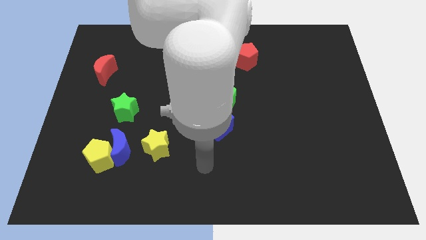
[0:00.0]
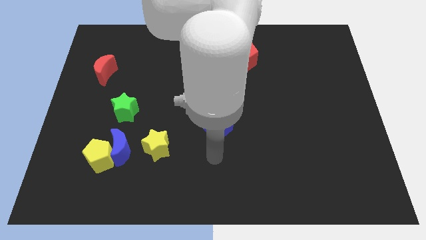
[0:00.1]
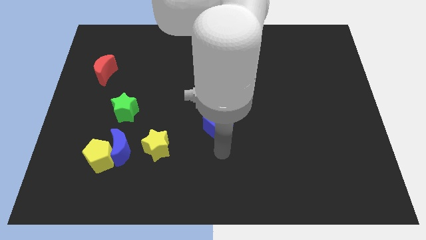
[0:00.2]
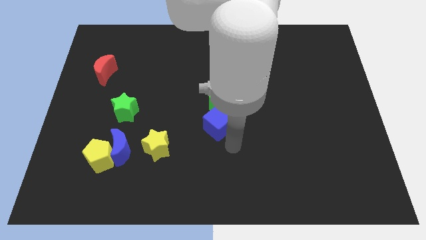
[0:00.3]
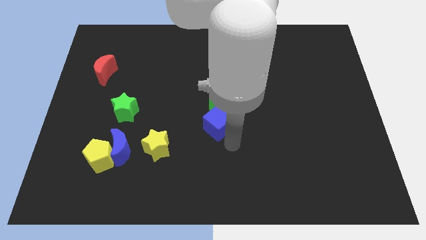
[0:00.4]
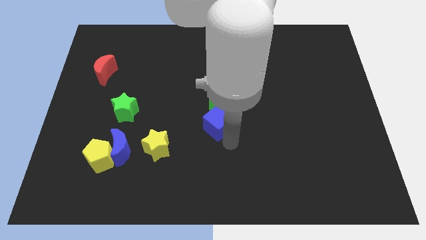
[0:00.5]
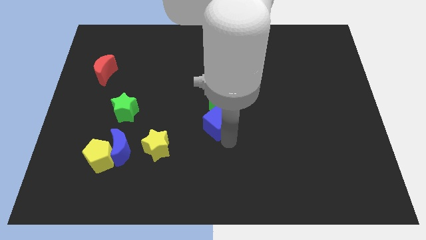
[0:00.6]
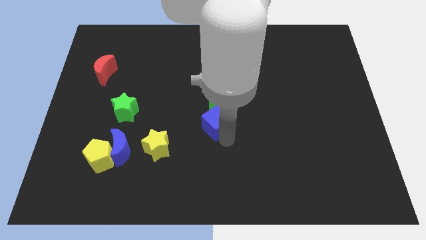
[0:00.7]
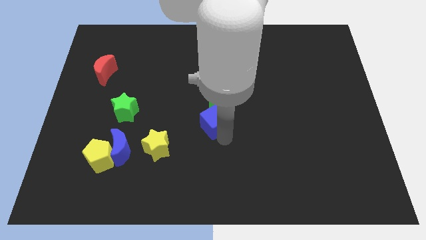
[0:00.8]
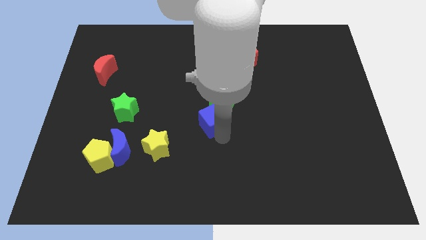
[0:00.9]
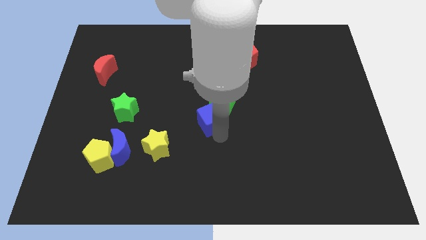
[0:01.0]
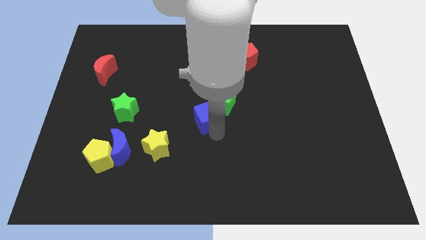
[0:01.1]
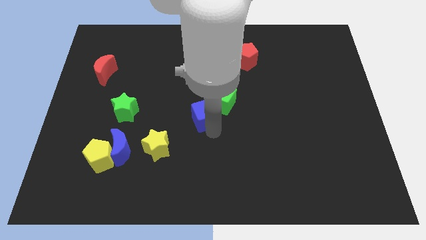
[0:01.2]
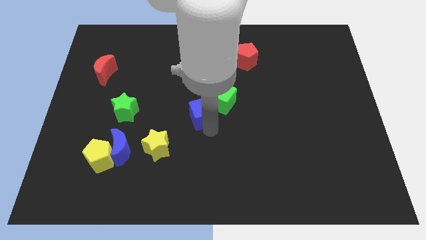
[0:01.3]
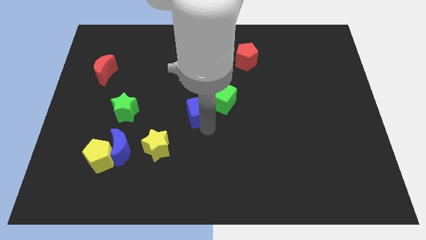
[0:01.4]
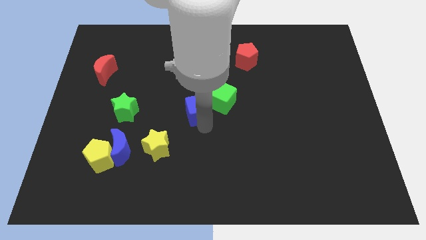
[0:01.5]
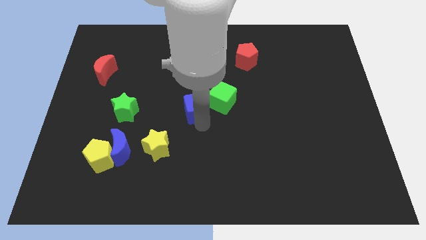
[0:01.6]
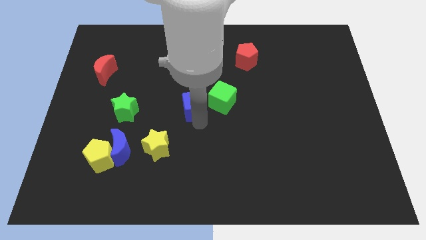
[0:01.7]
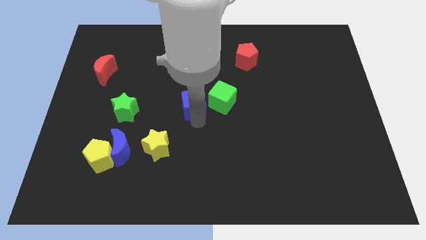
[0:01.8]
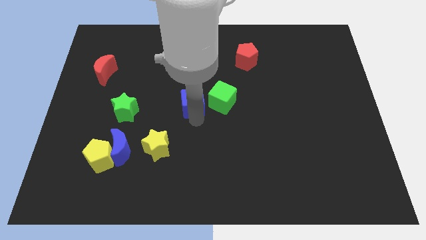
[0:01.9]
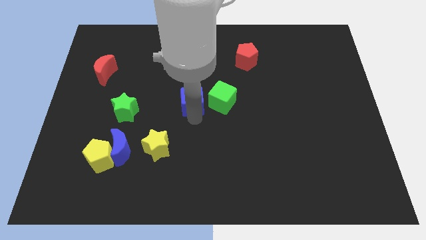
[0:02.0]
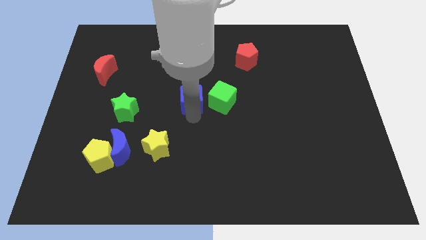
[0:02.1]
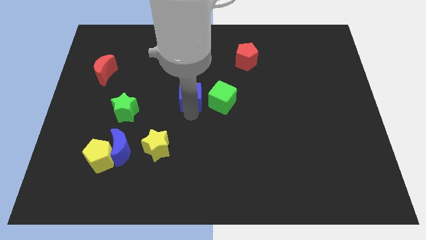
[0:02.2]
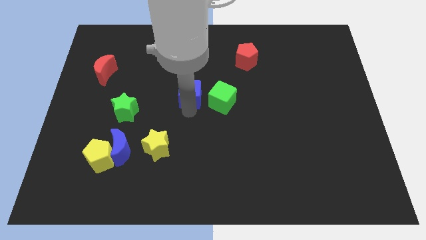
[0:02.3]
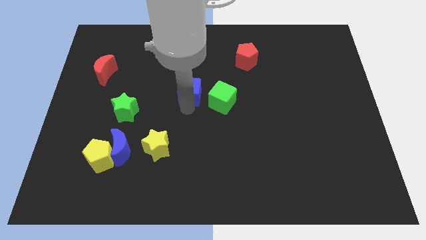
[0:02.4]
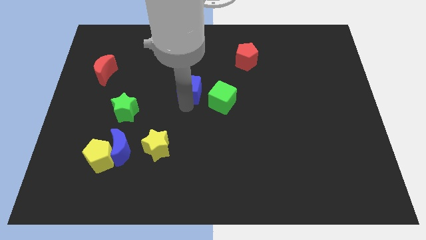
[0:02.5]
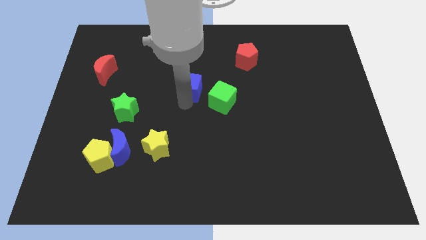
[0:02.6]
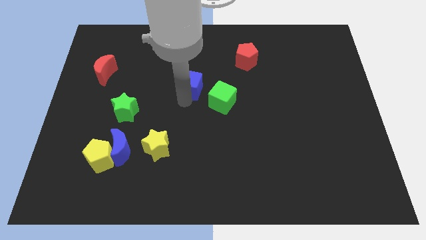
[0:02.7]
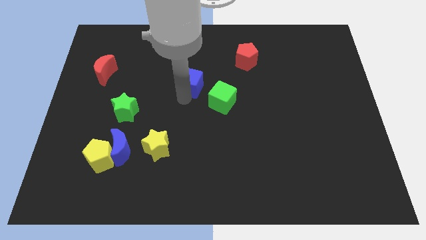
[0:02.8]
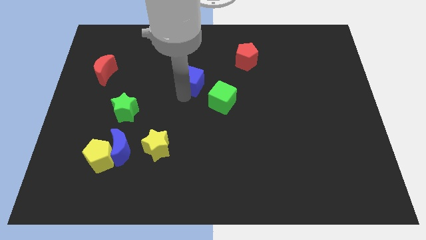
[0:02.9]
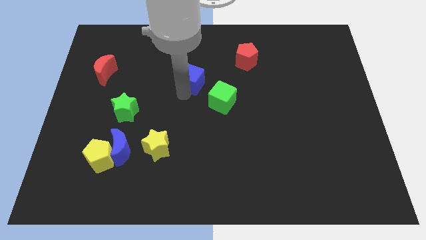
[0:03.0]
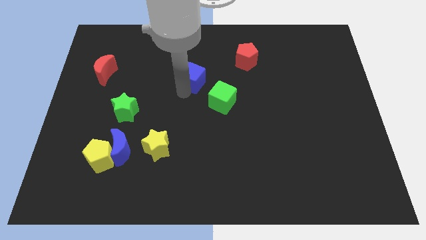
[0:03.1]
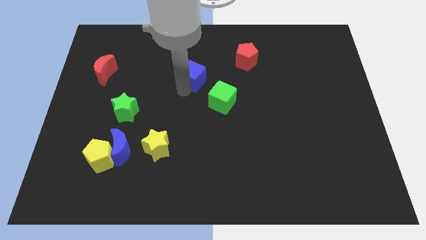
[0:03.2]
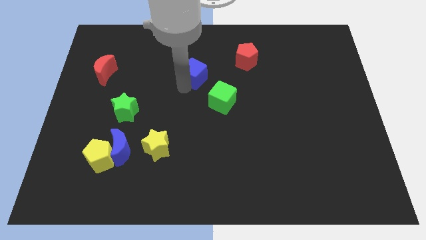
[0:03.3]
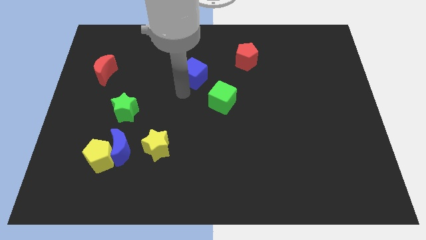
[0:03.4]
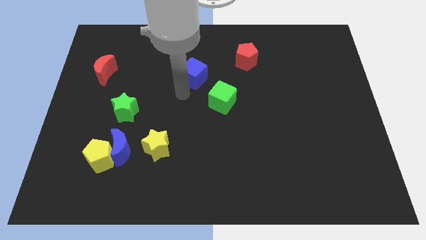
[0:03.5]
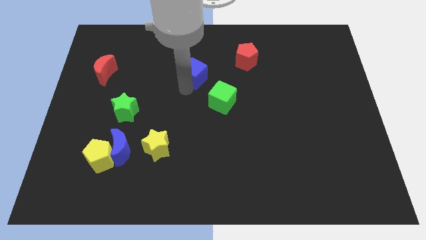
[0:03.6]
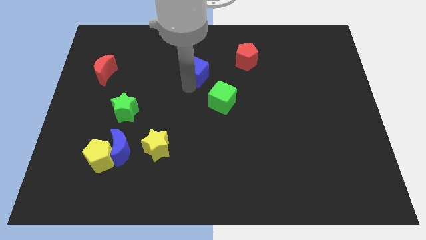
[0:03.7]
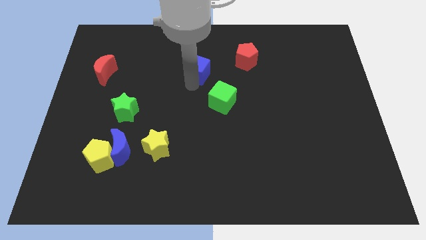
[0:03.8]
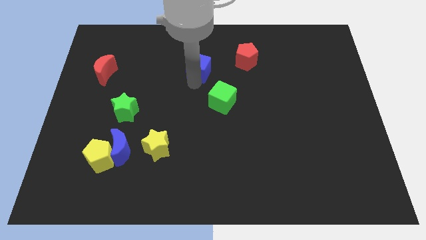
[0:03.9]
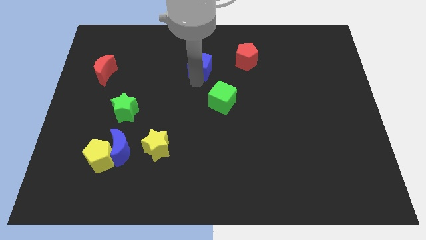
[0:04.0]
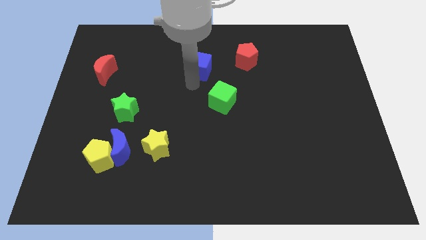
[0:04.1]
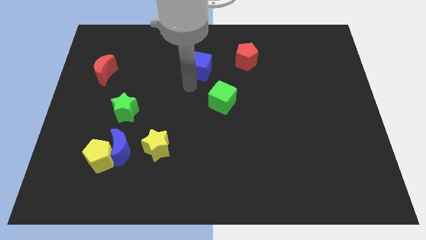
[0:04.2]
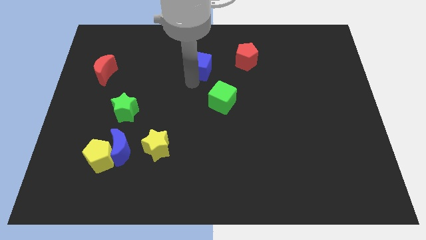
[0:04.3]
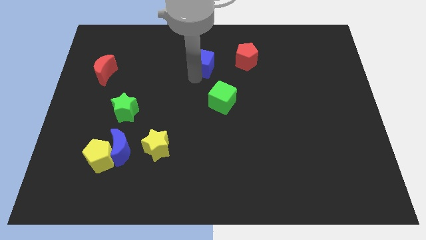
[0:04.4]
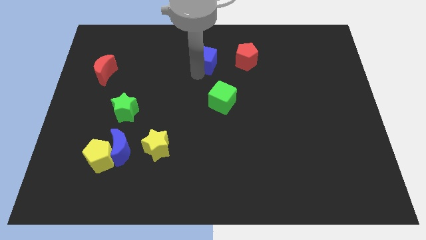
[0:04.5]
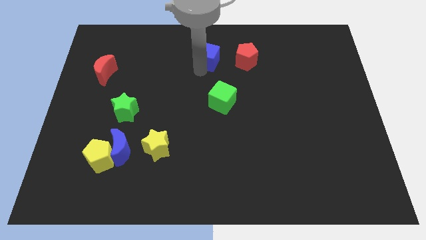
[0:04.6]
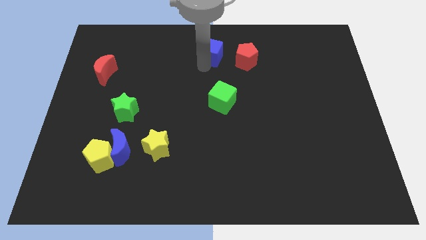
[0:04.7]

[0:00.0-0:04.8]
slide the blue cube to the top side

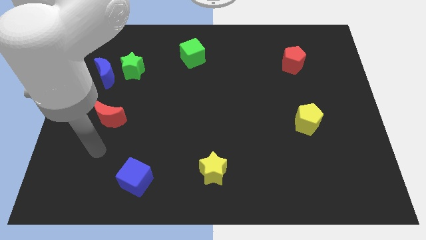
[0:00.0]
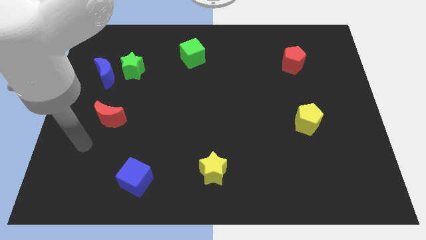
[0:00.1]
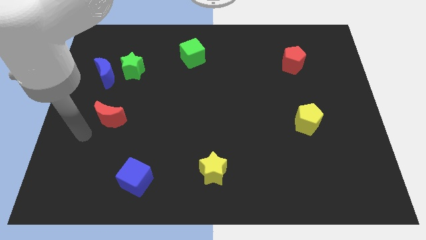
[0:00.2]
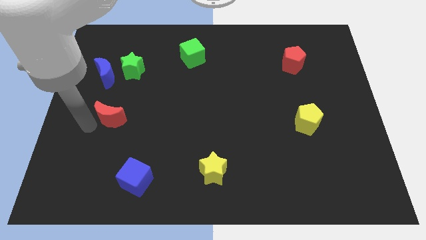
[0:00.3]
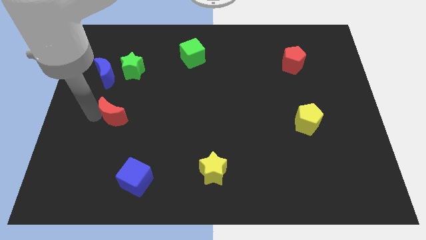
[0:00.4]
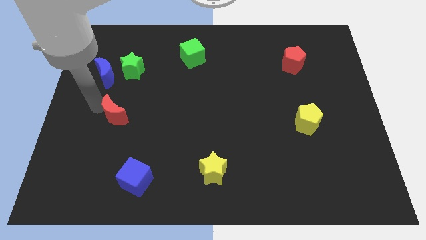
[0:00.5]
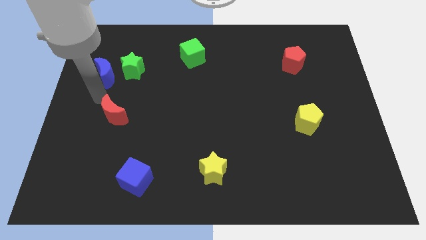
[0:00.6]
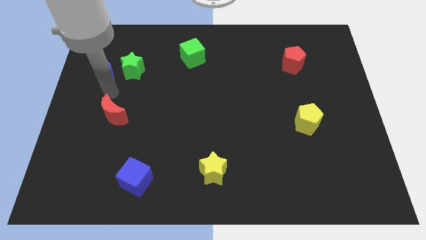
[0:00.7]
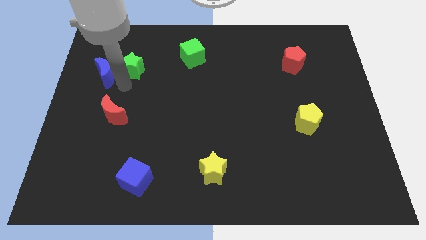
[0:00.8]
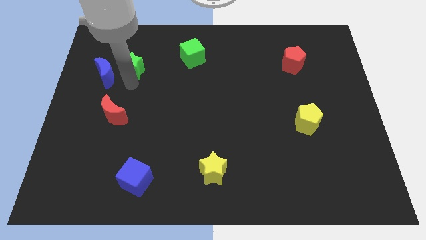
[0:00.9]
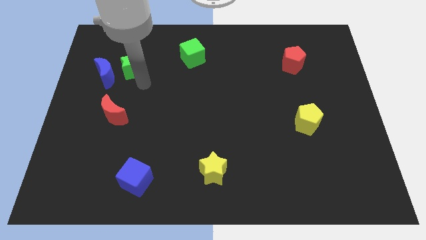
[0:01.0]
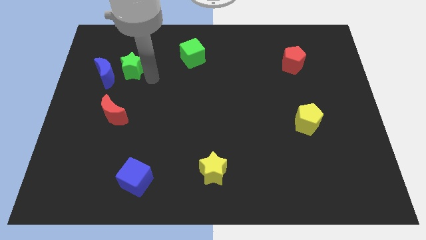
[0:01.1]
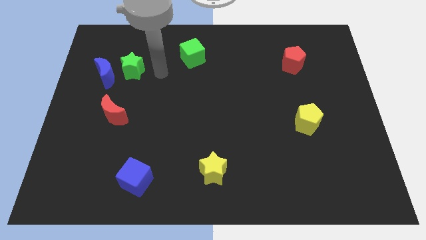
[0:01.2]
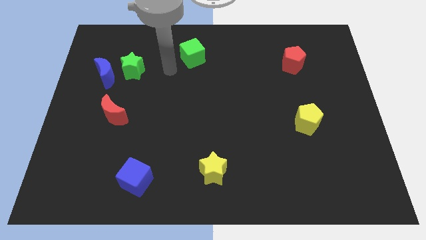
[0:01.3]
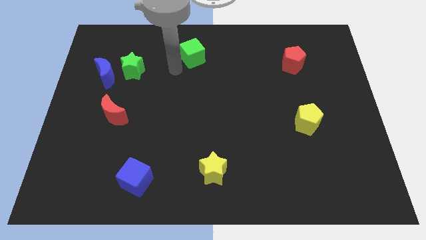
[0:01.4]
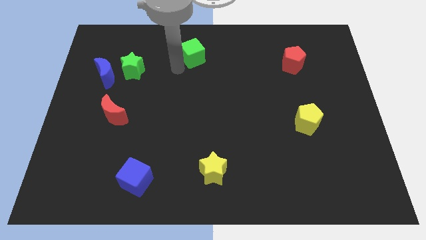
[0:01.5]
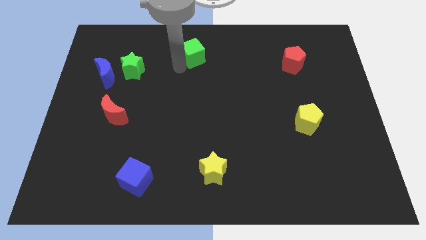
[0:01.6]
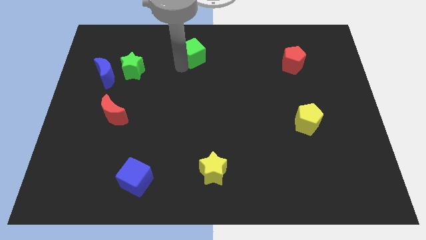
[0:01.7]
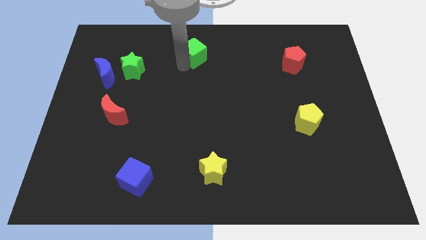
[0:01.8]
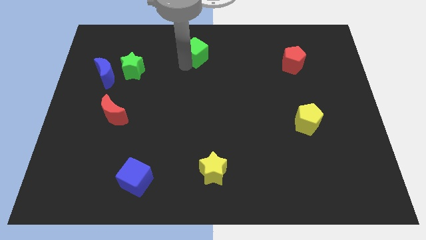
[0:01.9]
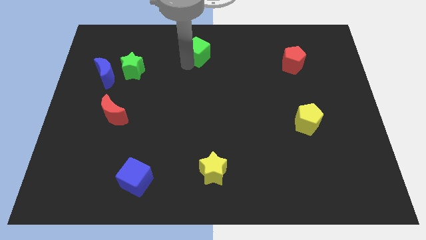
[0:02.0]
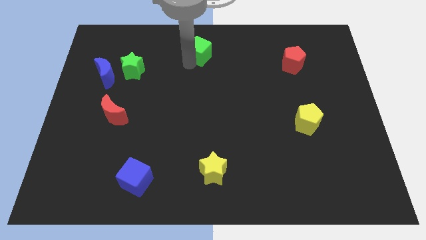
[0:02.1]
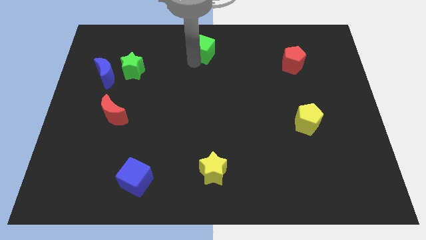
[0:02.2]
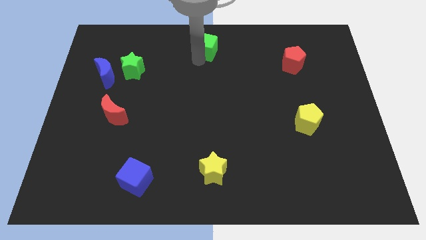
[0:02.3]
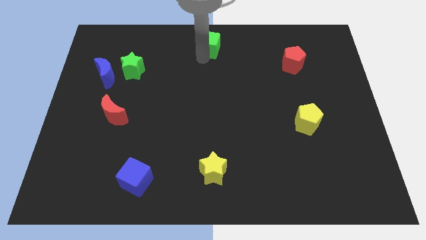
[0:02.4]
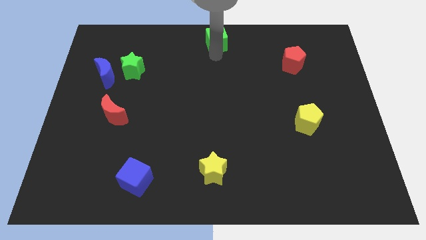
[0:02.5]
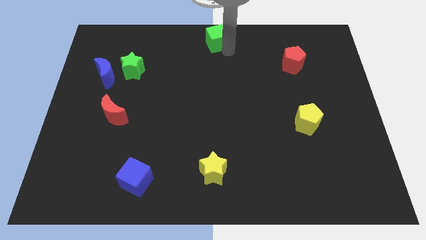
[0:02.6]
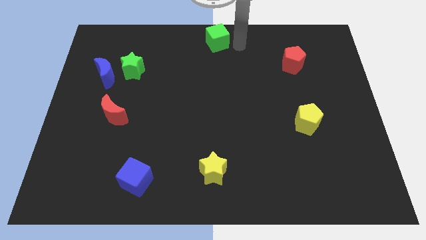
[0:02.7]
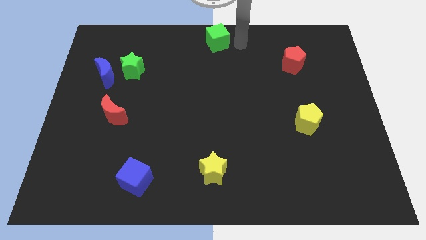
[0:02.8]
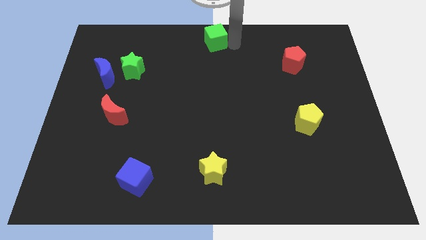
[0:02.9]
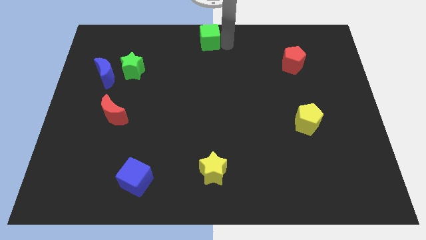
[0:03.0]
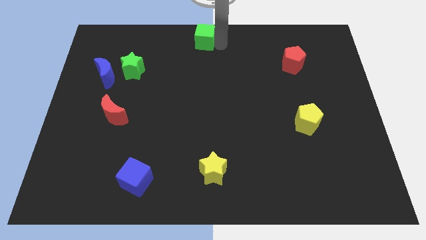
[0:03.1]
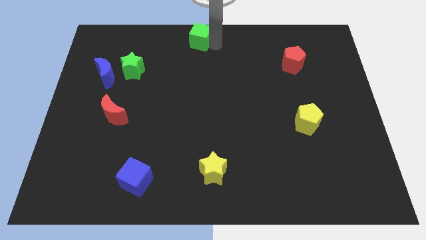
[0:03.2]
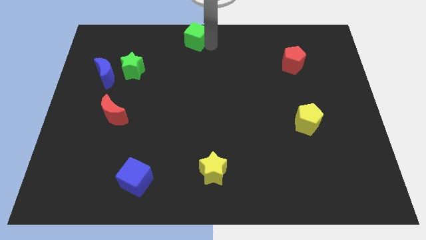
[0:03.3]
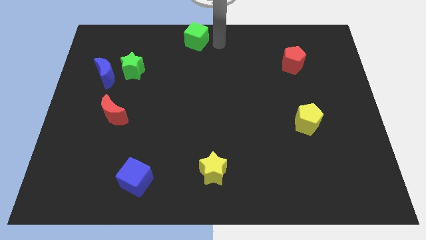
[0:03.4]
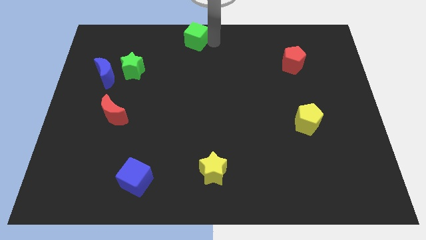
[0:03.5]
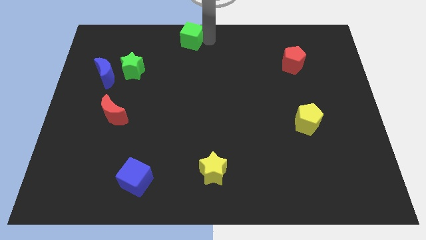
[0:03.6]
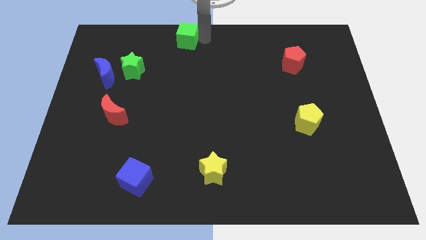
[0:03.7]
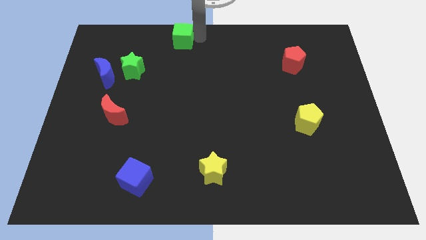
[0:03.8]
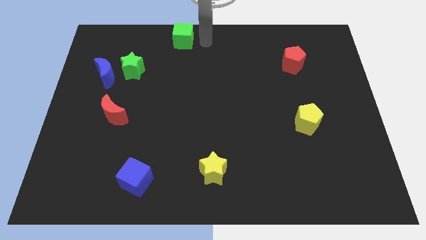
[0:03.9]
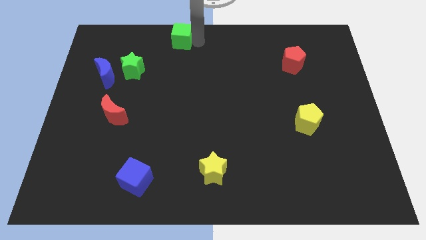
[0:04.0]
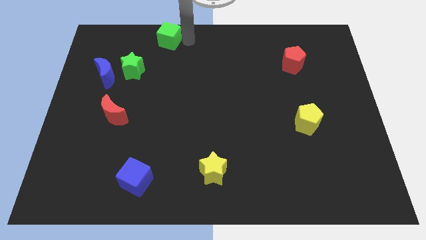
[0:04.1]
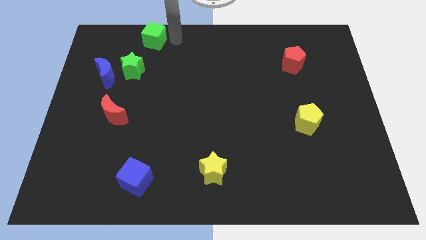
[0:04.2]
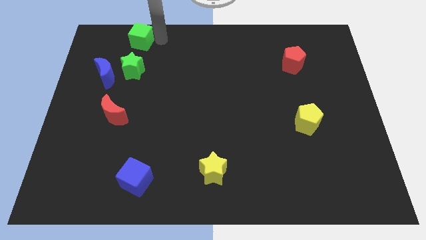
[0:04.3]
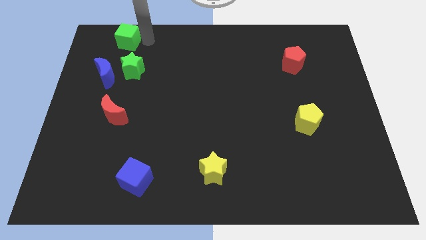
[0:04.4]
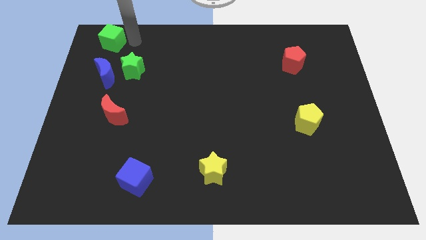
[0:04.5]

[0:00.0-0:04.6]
move the green cube to the top left corner
